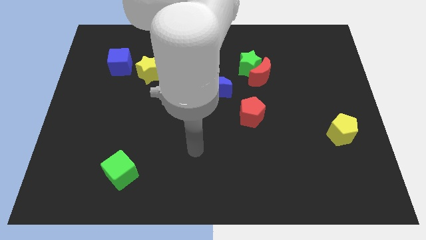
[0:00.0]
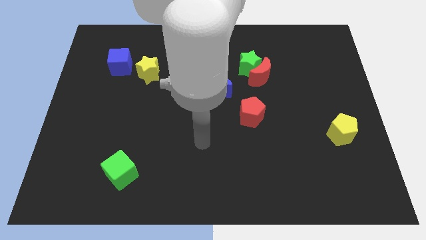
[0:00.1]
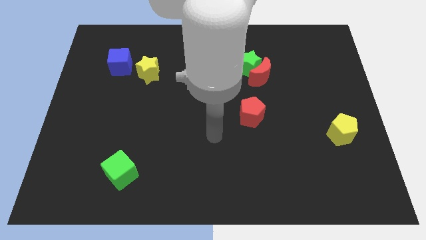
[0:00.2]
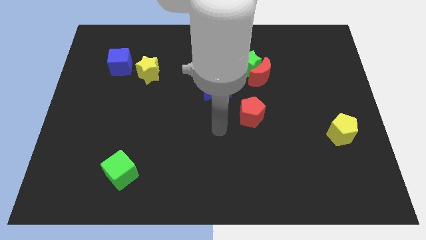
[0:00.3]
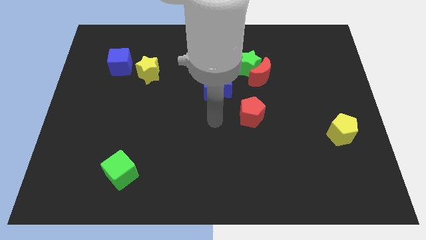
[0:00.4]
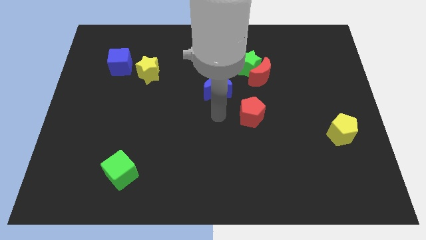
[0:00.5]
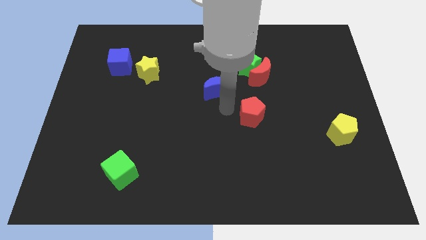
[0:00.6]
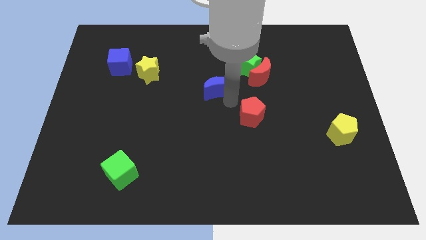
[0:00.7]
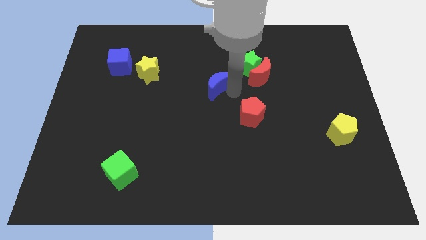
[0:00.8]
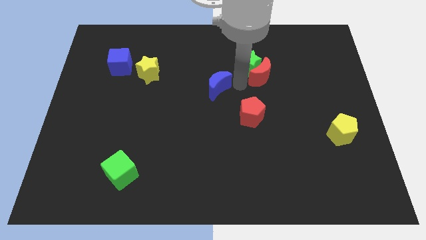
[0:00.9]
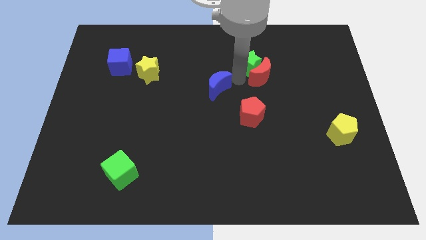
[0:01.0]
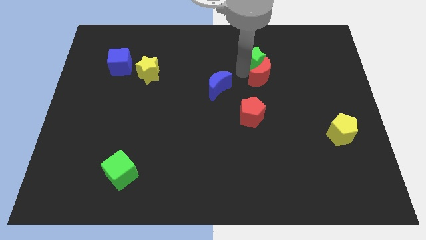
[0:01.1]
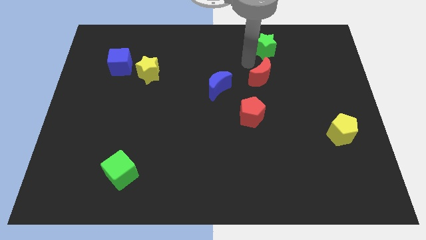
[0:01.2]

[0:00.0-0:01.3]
pull the red moon apart from the green star

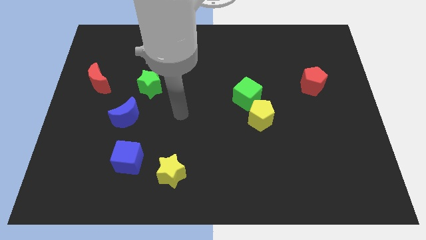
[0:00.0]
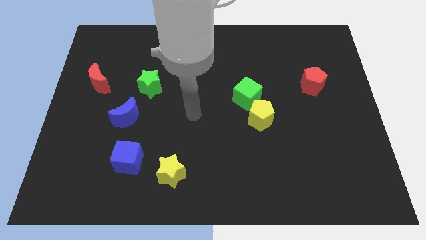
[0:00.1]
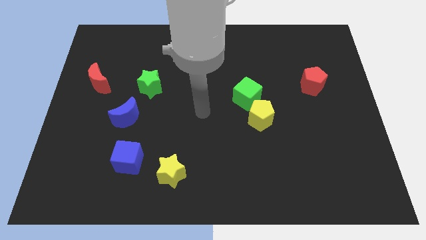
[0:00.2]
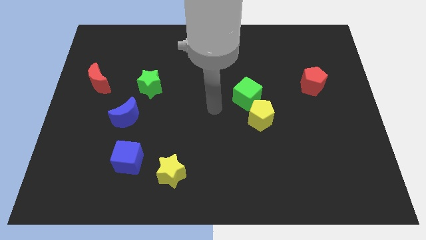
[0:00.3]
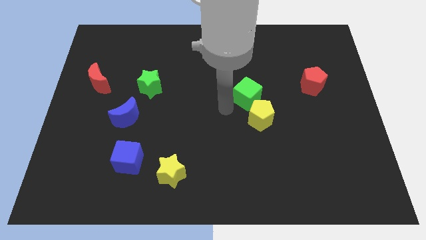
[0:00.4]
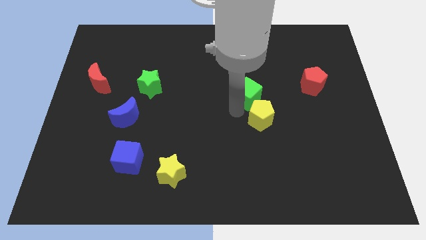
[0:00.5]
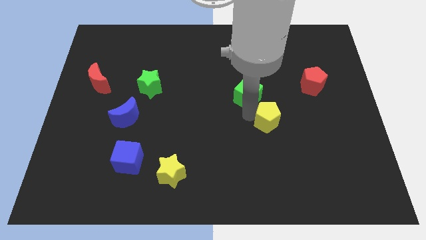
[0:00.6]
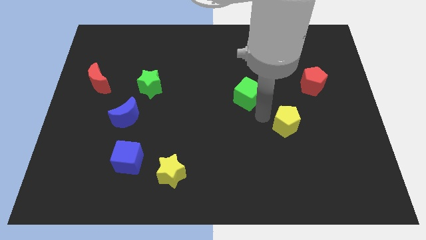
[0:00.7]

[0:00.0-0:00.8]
pull the green cube apart from the yellow pentagon

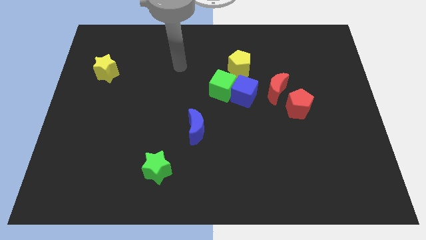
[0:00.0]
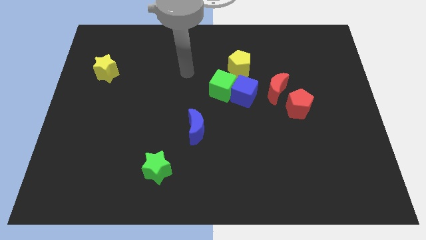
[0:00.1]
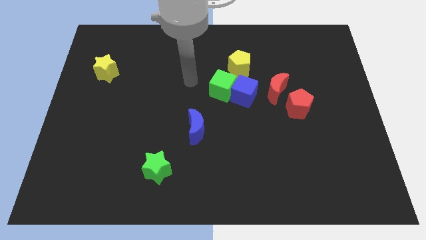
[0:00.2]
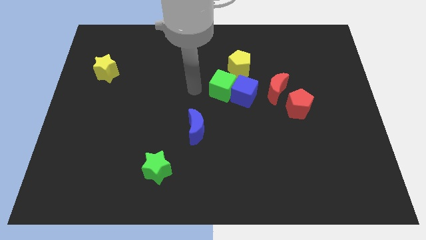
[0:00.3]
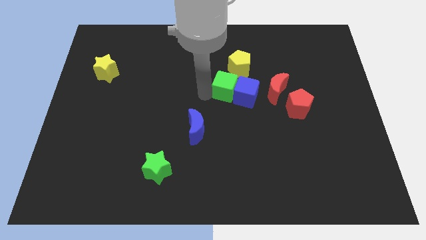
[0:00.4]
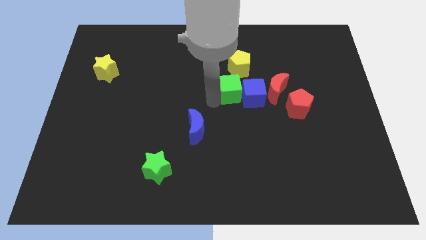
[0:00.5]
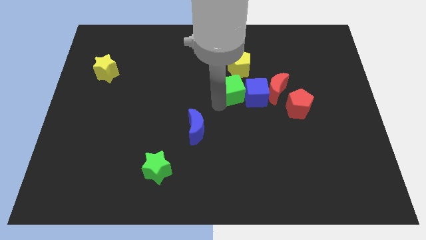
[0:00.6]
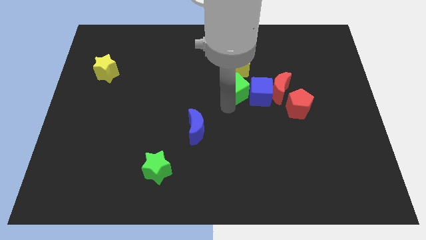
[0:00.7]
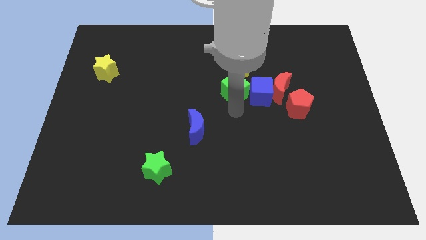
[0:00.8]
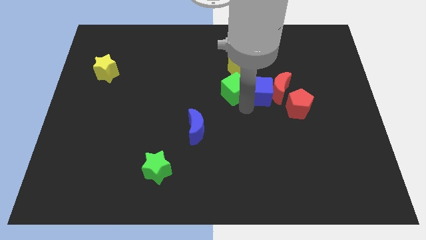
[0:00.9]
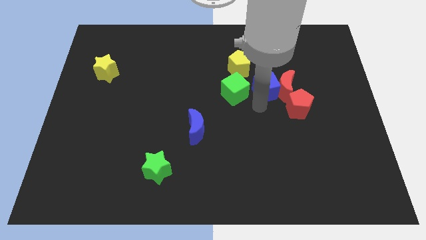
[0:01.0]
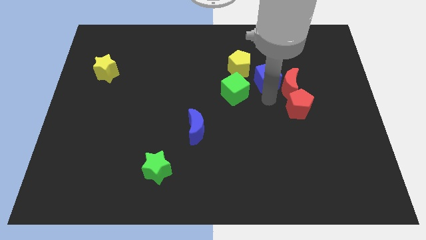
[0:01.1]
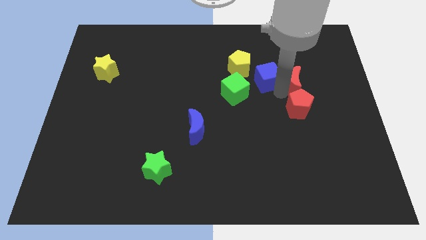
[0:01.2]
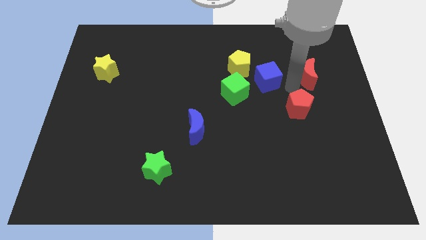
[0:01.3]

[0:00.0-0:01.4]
pull the red pentagon apart from the red moon

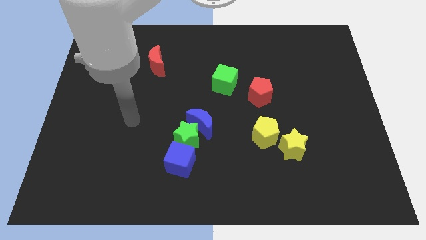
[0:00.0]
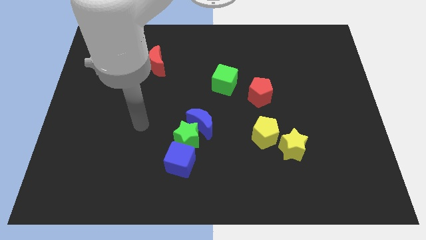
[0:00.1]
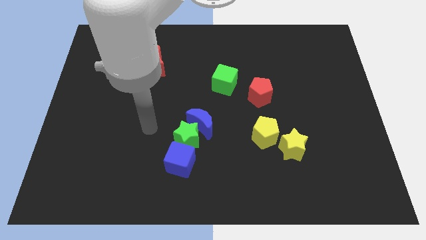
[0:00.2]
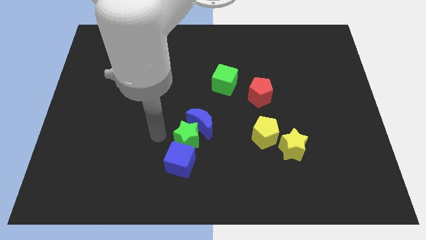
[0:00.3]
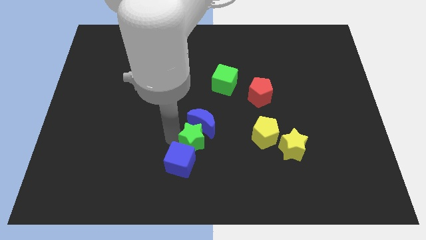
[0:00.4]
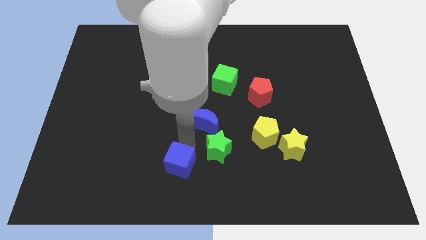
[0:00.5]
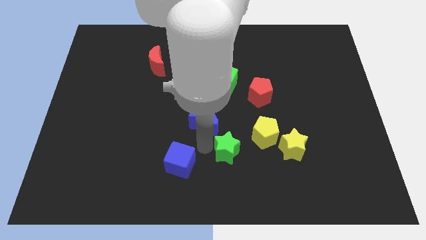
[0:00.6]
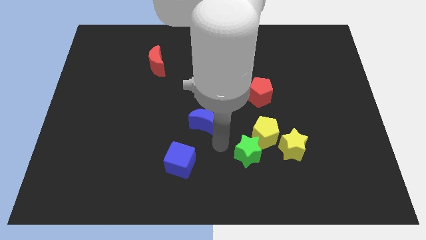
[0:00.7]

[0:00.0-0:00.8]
separate the blue moon from the green star

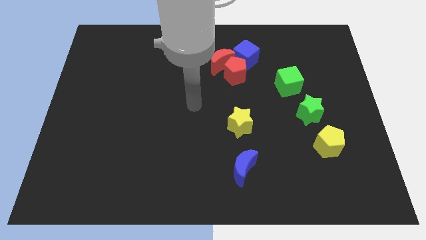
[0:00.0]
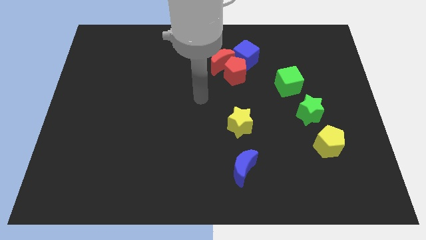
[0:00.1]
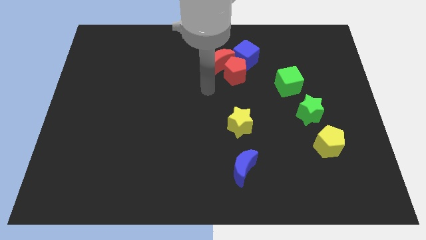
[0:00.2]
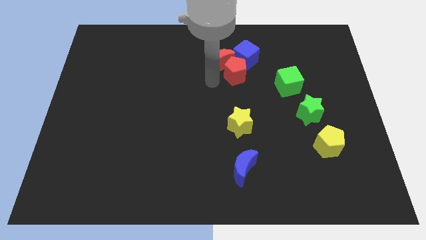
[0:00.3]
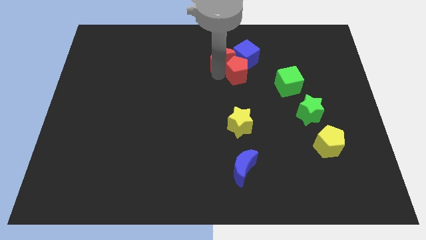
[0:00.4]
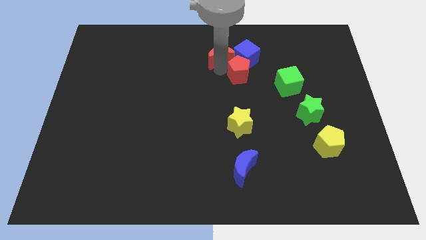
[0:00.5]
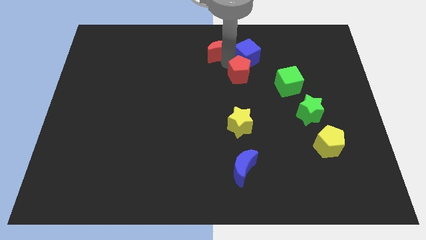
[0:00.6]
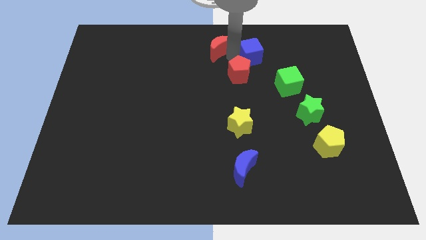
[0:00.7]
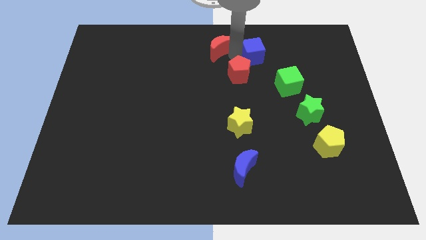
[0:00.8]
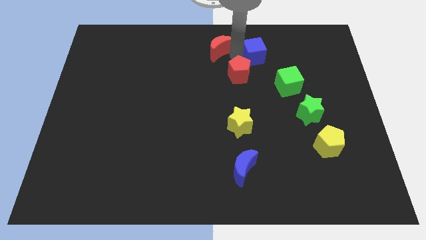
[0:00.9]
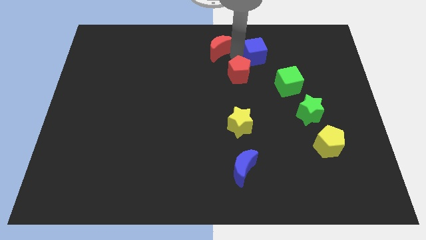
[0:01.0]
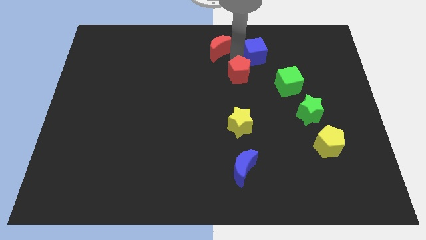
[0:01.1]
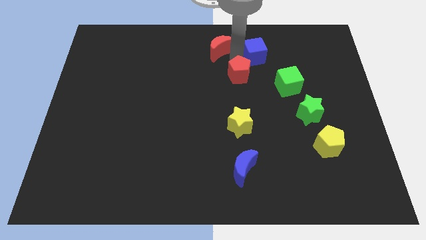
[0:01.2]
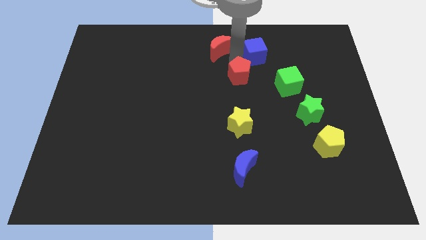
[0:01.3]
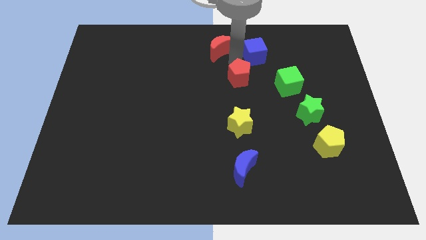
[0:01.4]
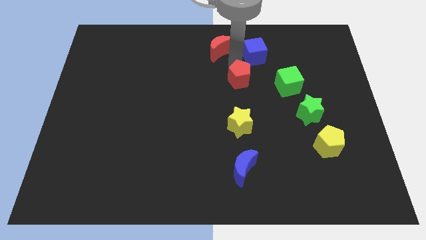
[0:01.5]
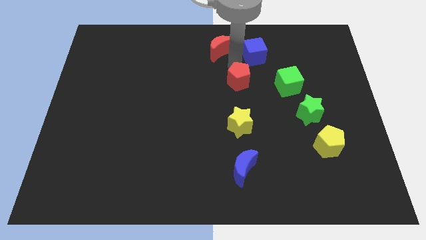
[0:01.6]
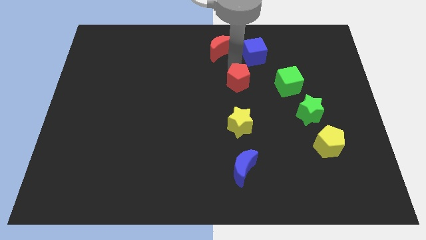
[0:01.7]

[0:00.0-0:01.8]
move the red pentagon away from the red moon and blue cube

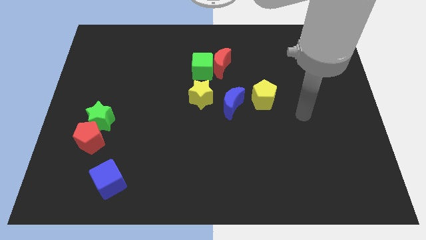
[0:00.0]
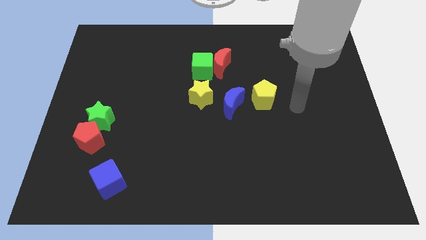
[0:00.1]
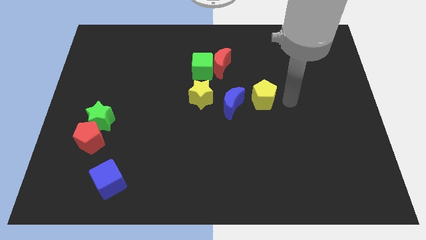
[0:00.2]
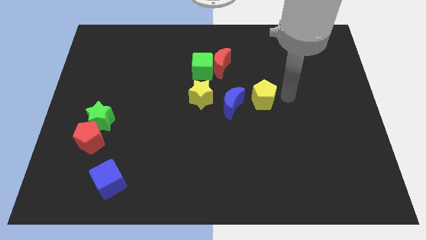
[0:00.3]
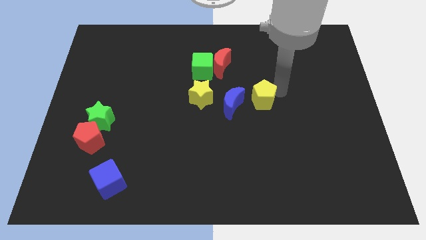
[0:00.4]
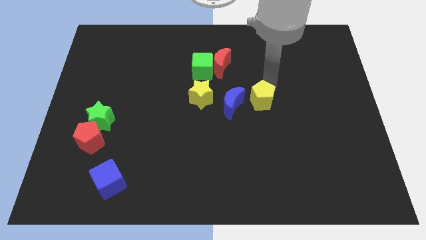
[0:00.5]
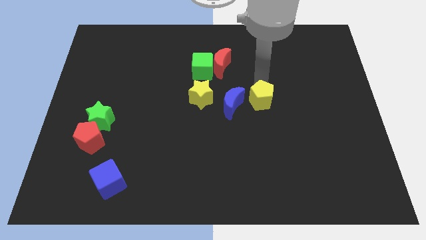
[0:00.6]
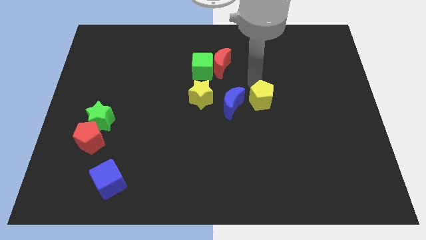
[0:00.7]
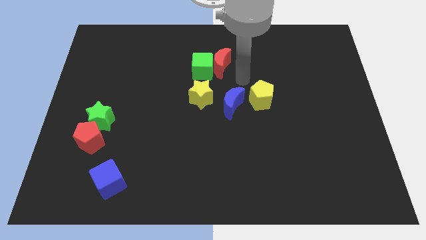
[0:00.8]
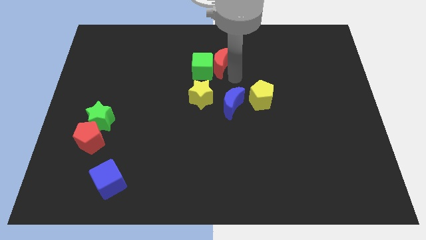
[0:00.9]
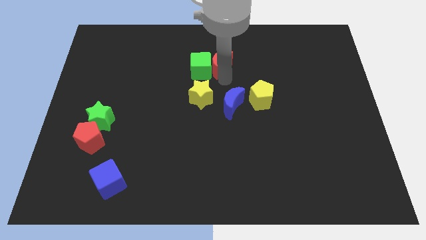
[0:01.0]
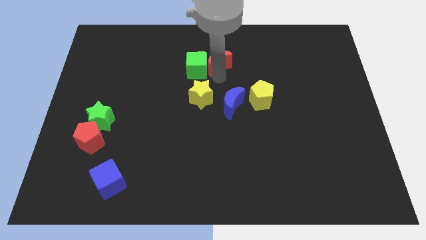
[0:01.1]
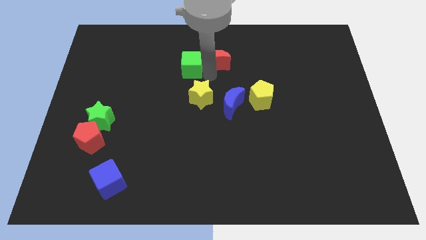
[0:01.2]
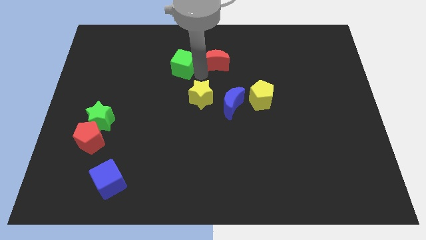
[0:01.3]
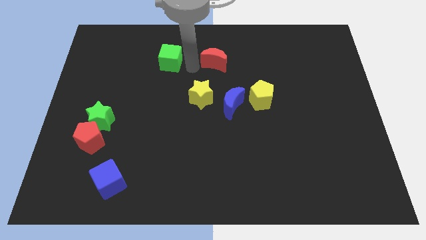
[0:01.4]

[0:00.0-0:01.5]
pull the red moon apart from the green cube

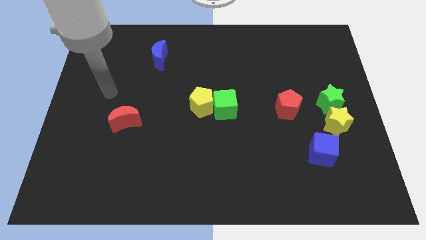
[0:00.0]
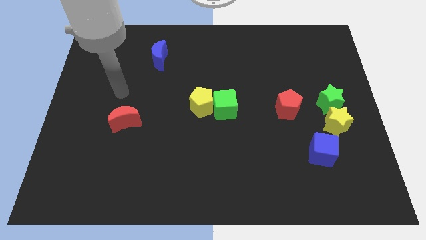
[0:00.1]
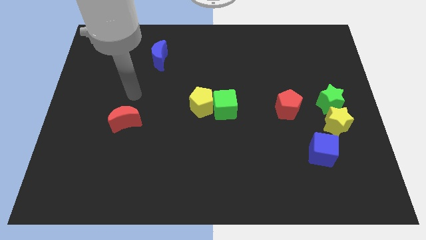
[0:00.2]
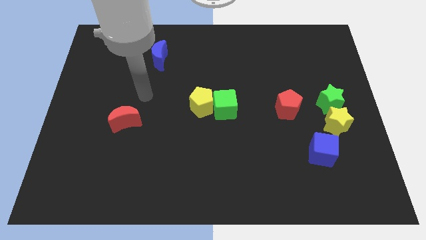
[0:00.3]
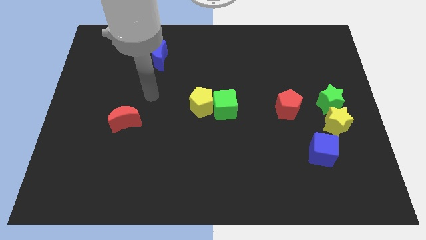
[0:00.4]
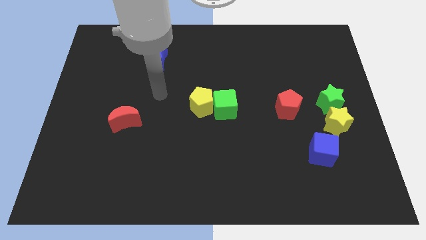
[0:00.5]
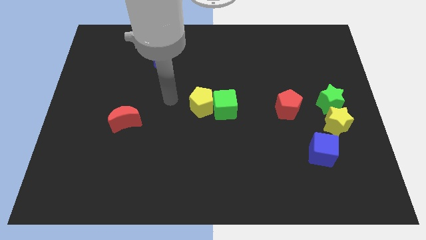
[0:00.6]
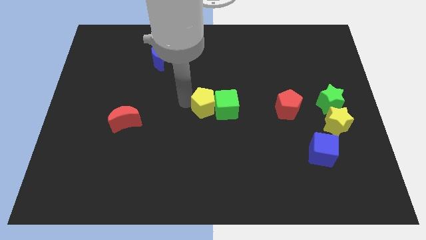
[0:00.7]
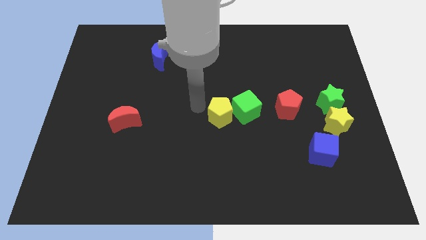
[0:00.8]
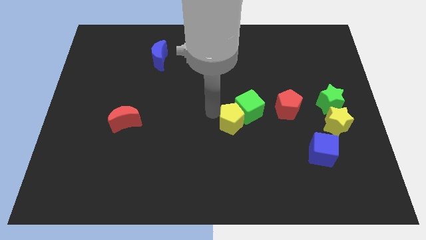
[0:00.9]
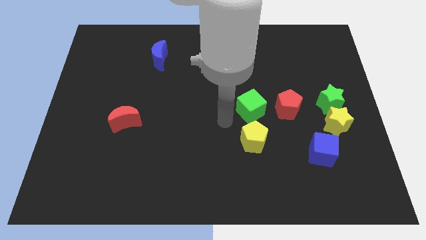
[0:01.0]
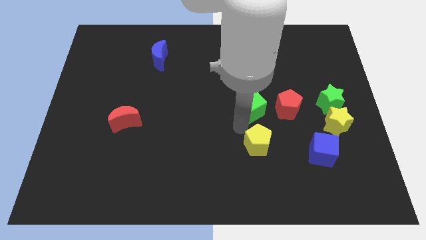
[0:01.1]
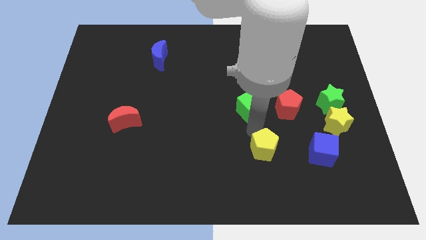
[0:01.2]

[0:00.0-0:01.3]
move the green cube away from the yellow pentagon

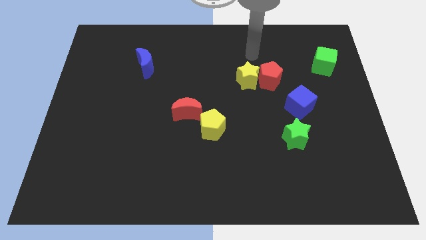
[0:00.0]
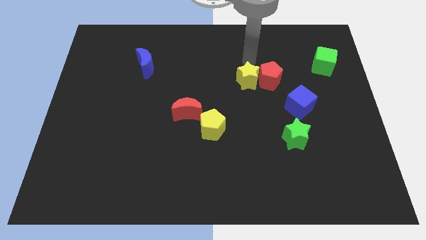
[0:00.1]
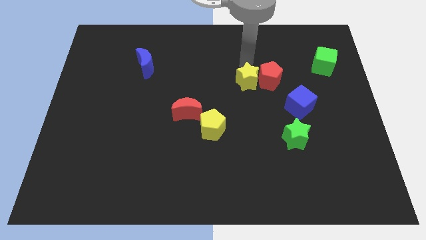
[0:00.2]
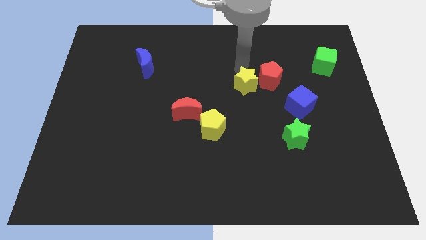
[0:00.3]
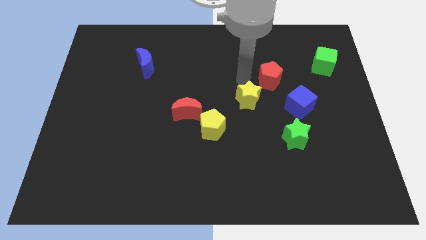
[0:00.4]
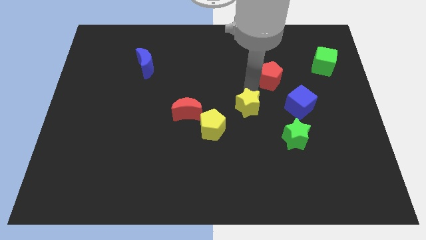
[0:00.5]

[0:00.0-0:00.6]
move the red pentagon away from the yellow star
